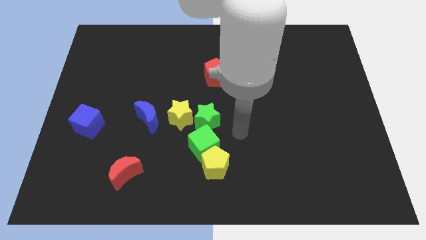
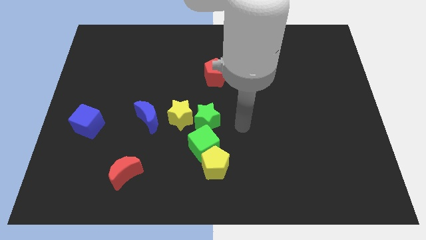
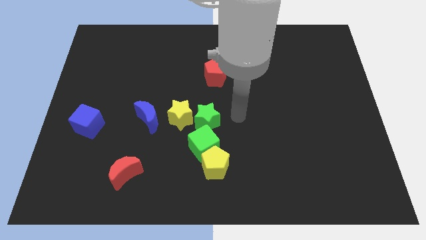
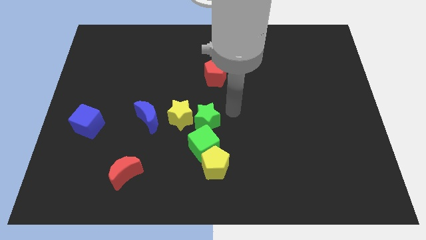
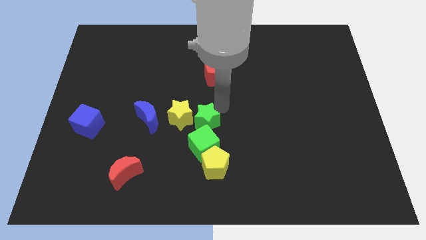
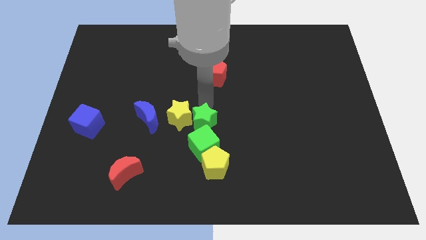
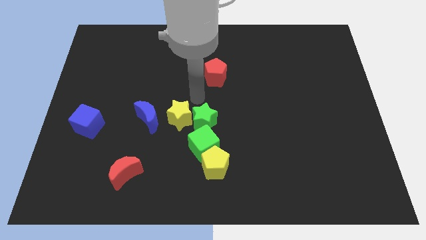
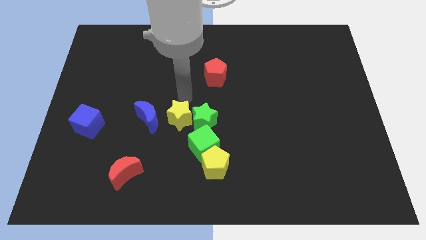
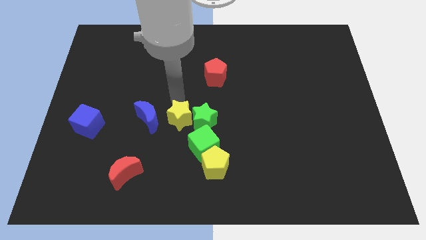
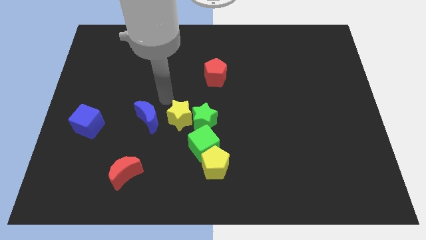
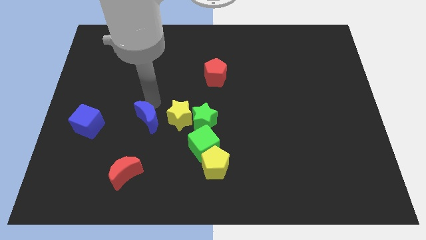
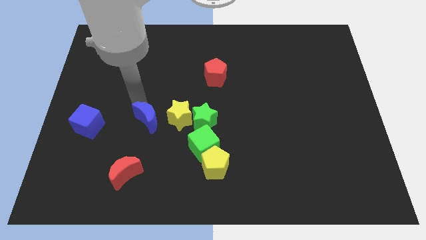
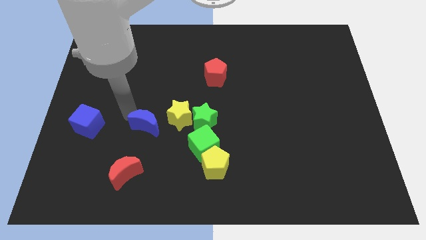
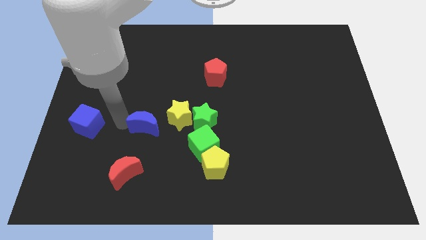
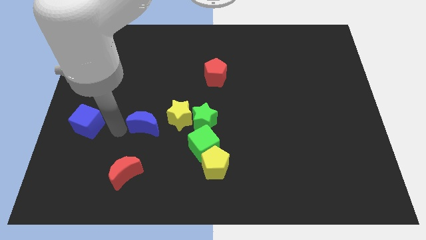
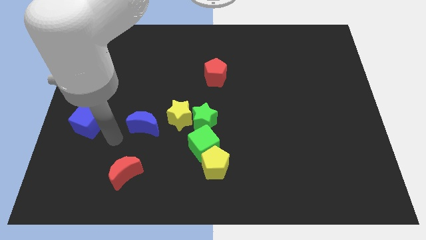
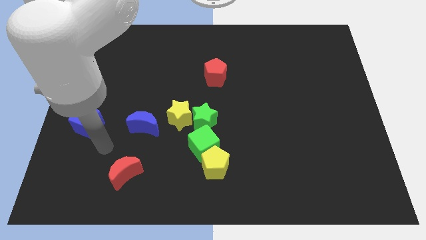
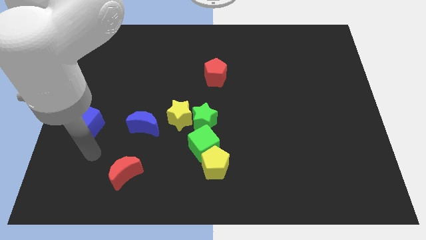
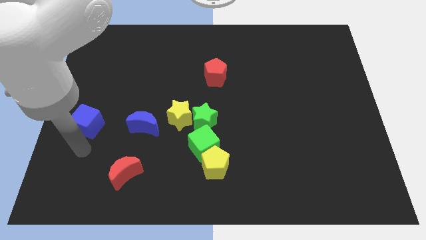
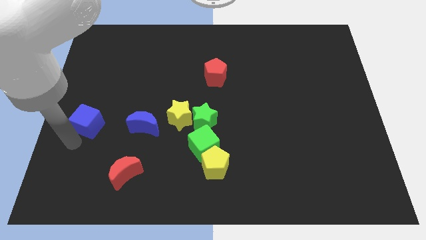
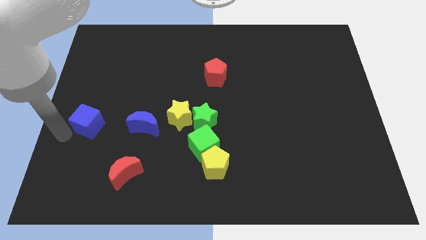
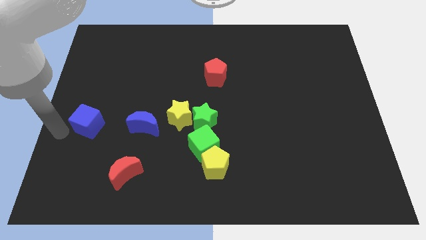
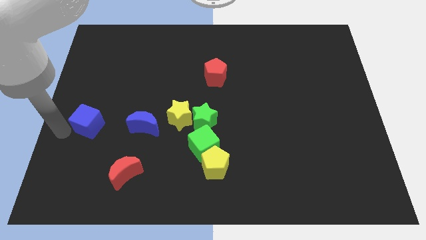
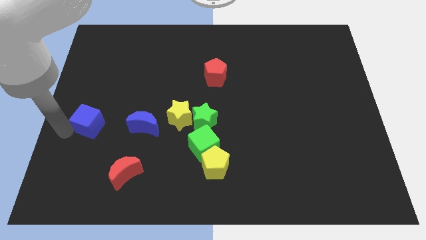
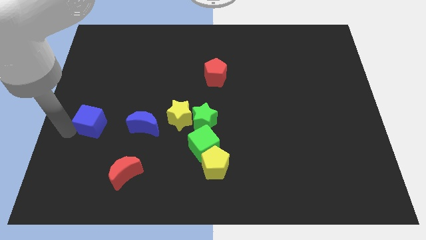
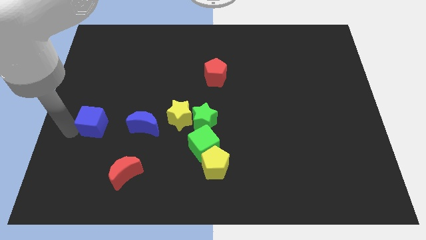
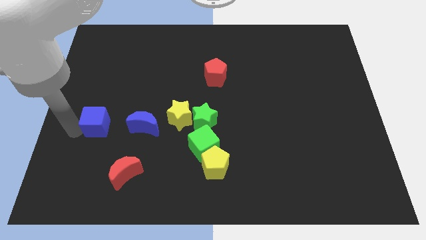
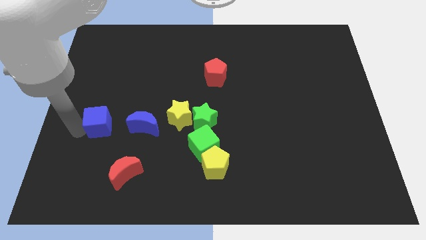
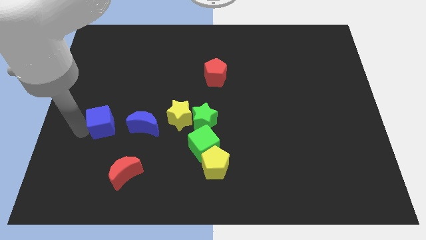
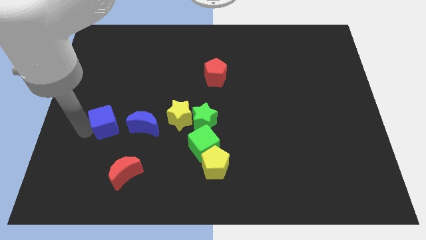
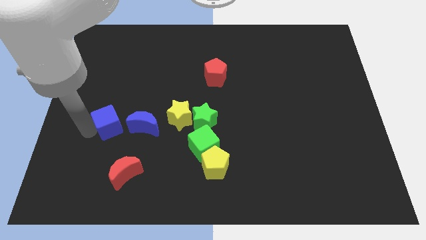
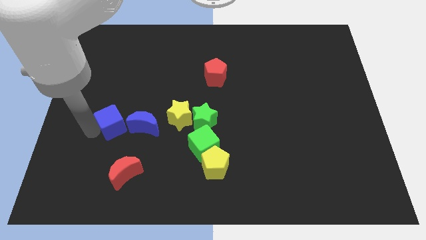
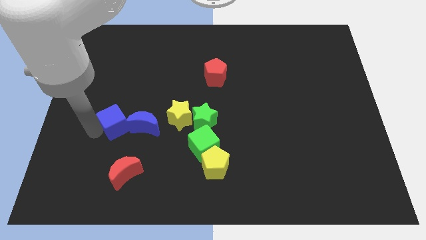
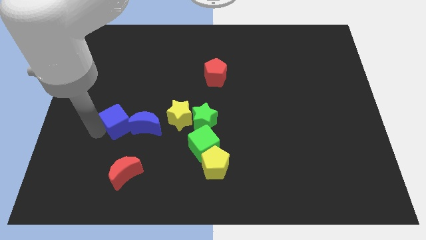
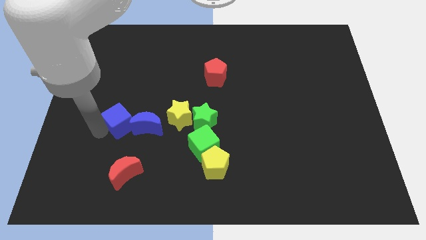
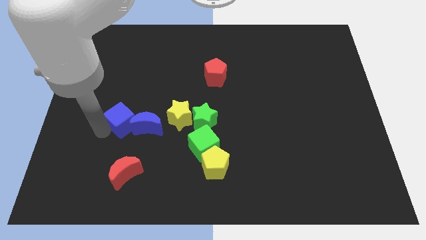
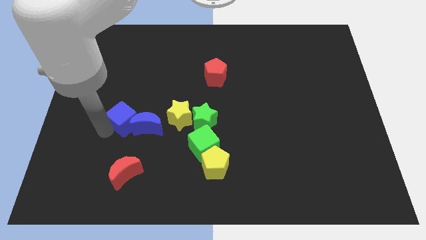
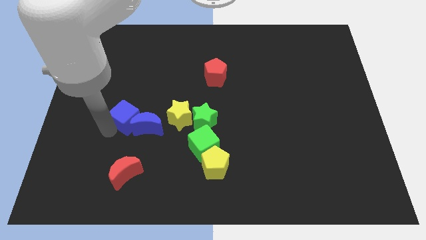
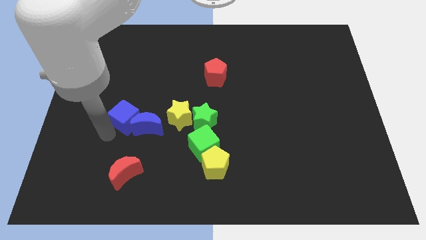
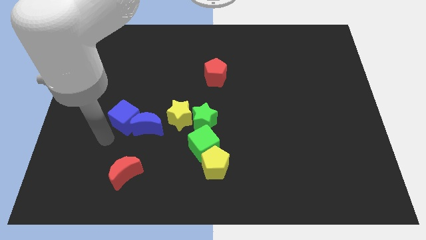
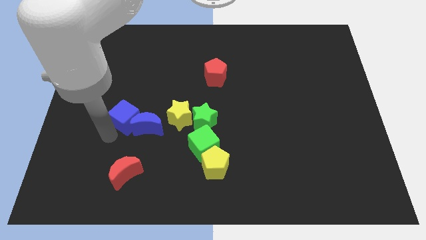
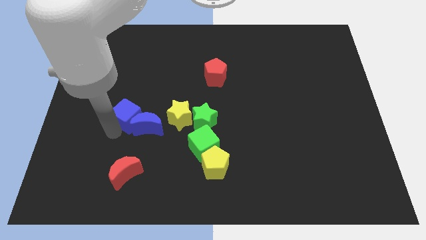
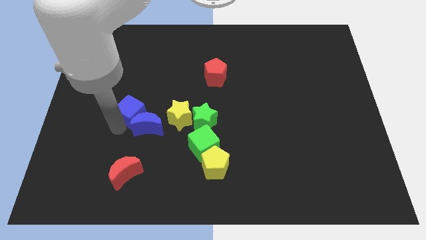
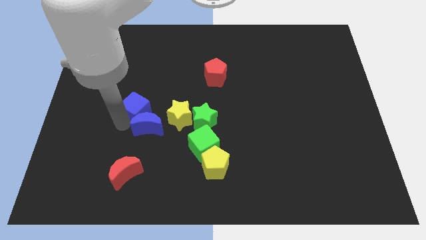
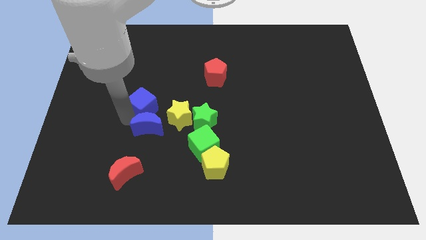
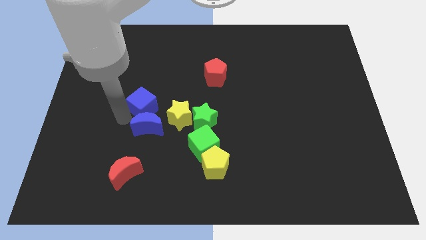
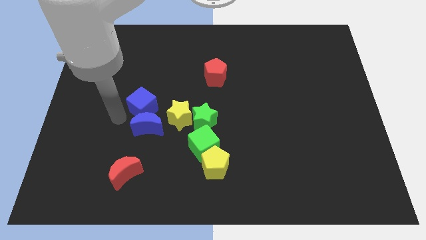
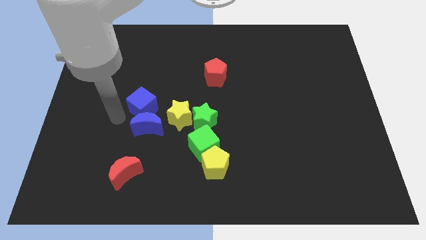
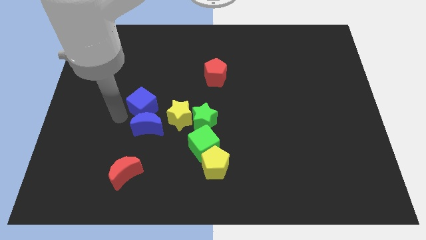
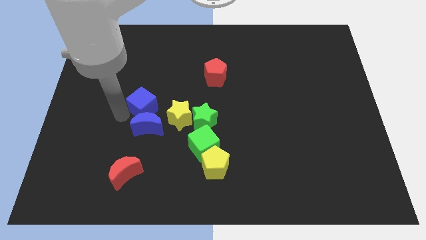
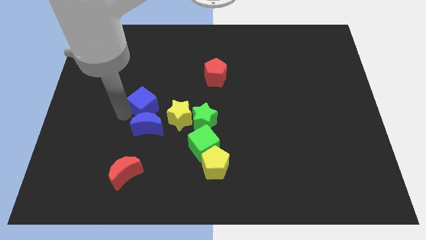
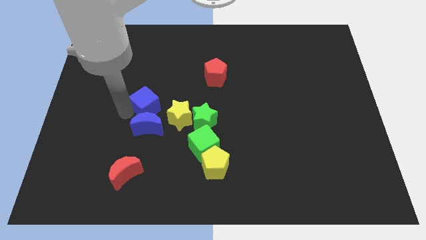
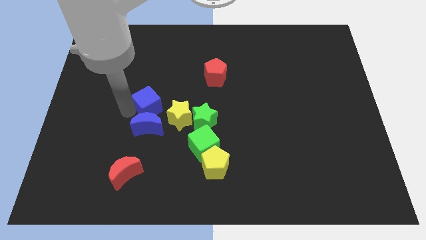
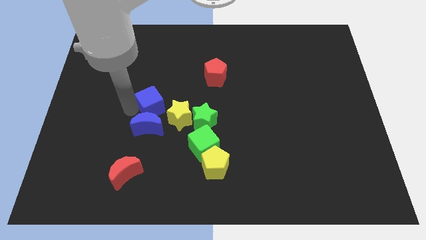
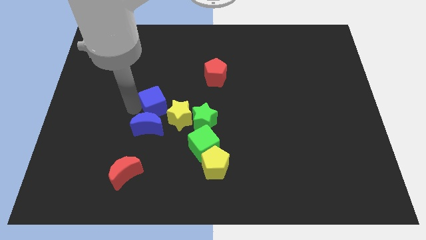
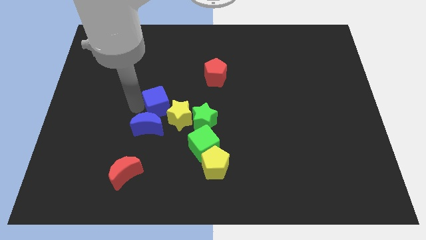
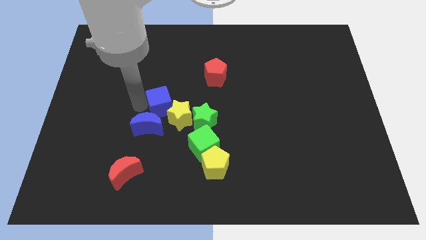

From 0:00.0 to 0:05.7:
push the blue cube to the center
